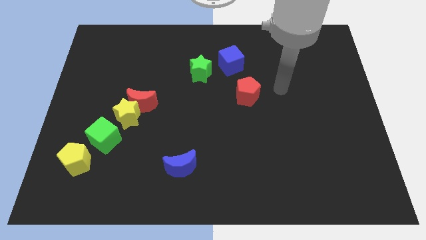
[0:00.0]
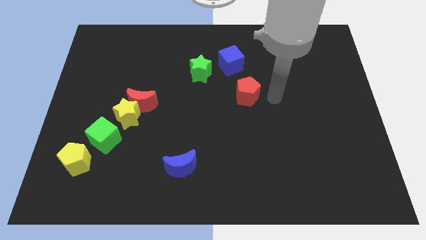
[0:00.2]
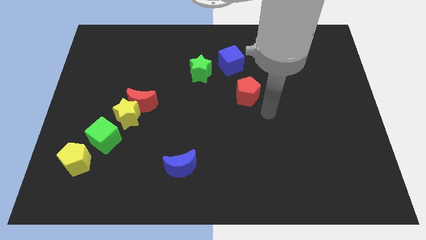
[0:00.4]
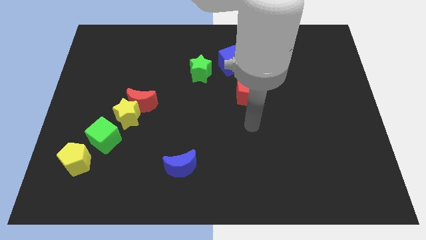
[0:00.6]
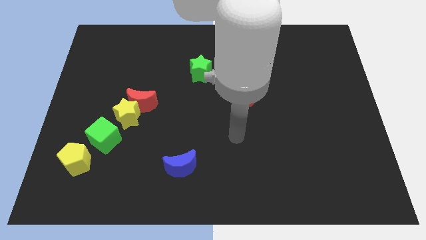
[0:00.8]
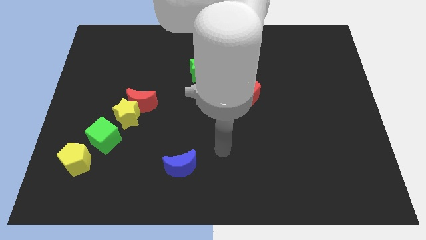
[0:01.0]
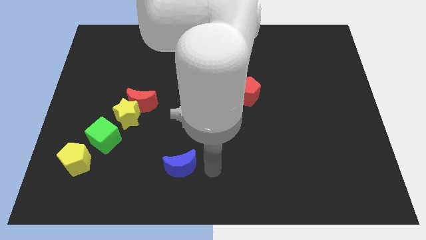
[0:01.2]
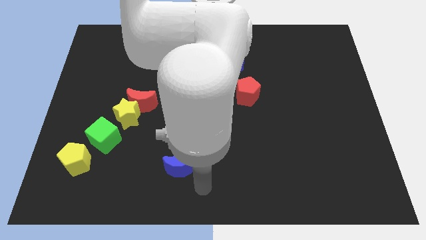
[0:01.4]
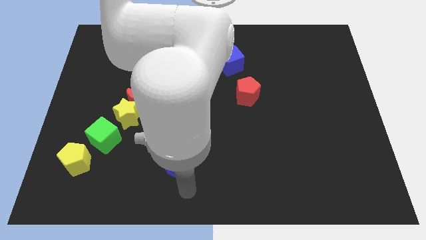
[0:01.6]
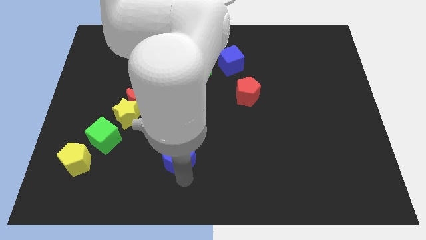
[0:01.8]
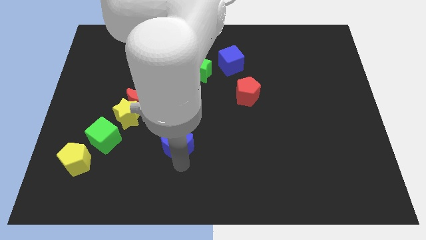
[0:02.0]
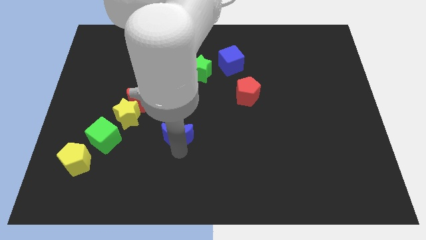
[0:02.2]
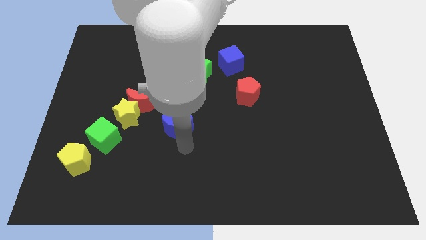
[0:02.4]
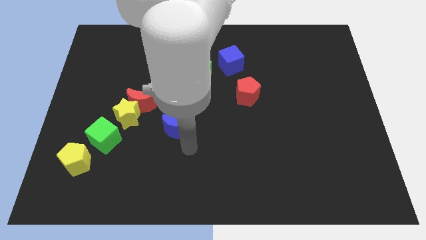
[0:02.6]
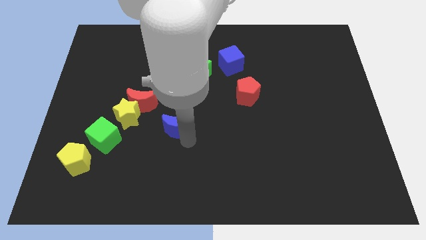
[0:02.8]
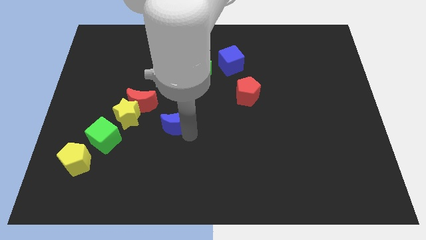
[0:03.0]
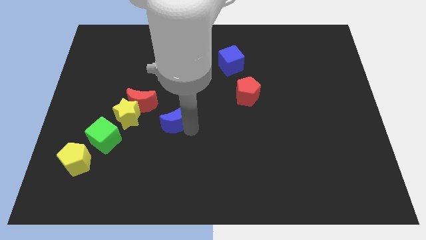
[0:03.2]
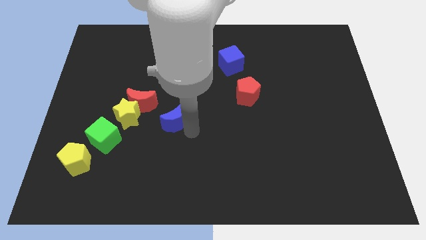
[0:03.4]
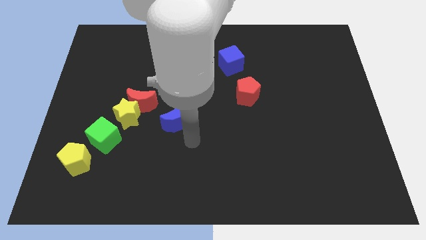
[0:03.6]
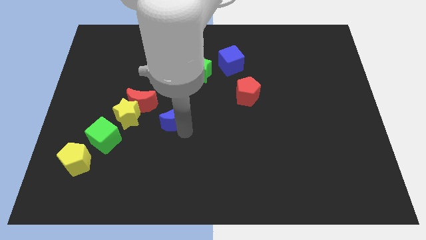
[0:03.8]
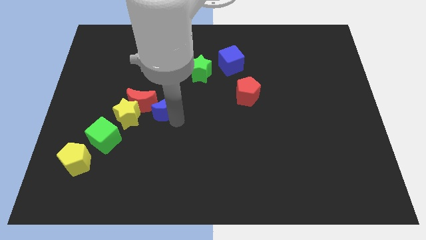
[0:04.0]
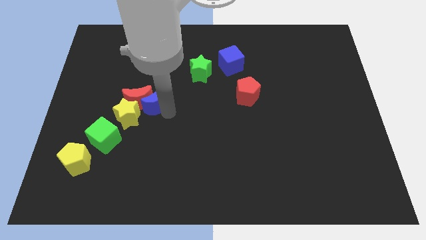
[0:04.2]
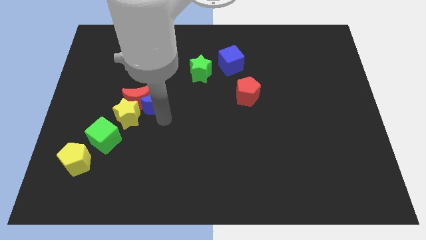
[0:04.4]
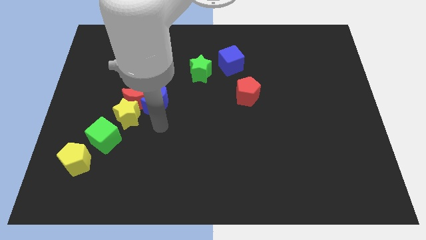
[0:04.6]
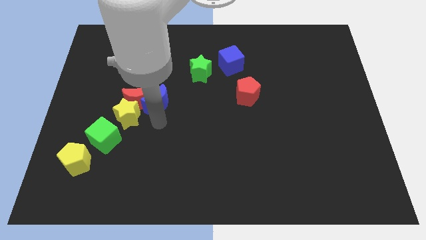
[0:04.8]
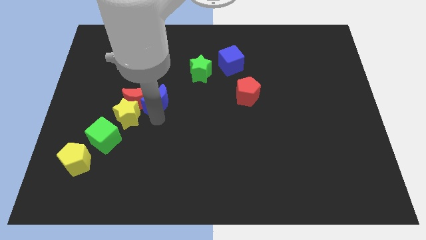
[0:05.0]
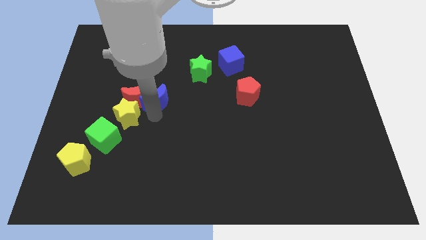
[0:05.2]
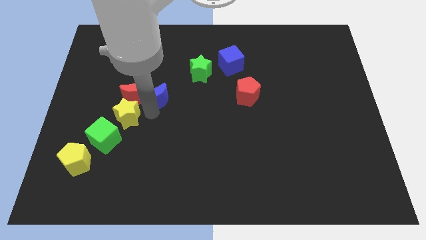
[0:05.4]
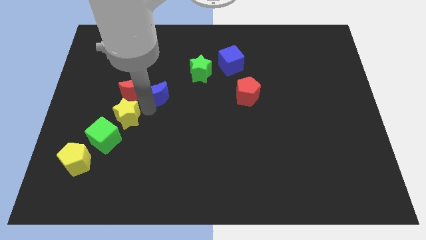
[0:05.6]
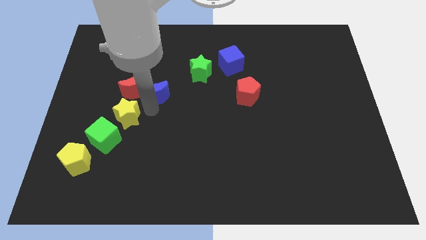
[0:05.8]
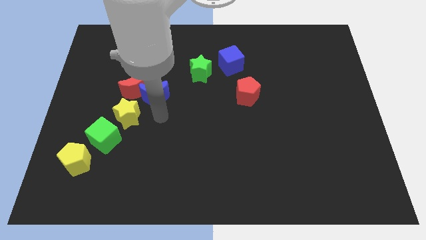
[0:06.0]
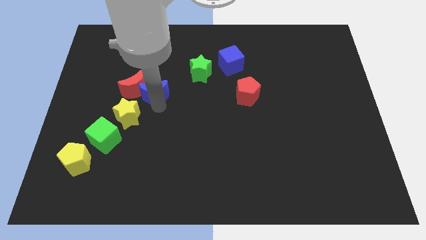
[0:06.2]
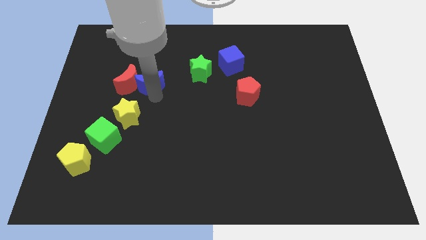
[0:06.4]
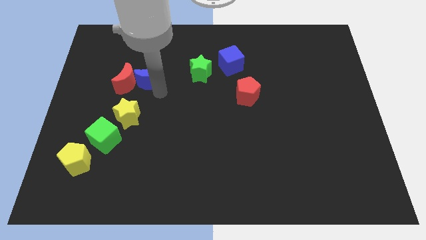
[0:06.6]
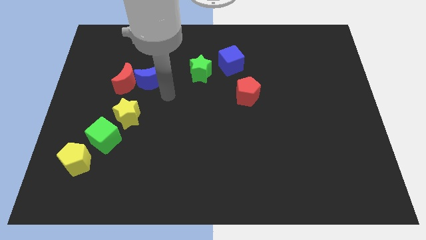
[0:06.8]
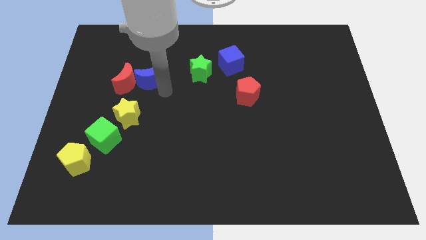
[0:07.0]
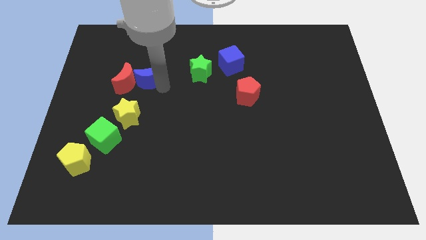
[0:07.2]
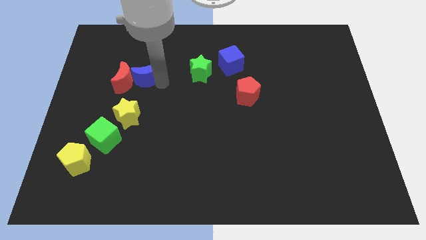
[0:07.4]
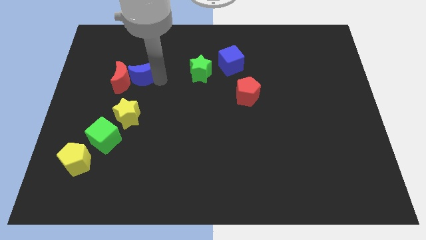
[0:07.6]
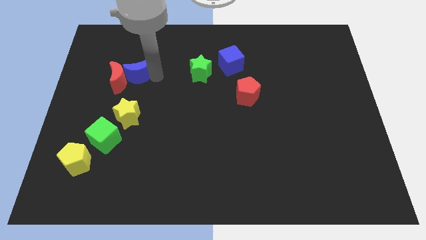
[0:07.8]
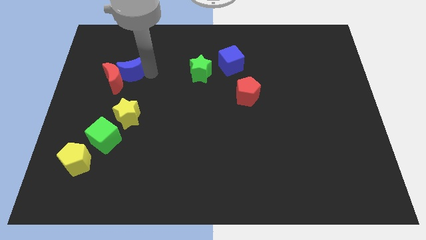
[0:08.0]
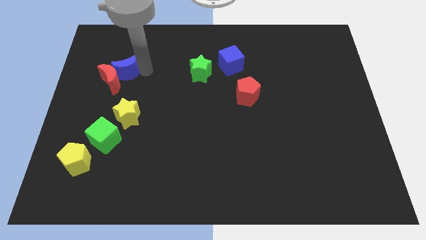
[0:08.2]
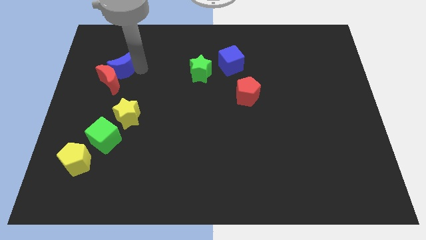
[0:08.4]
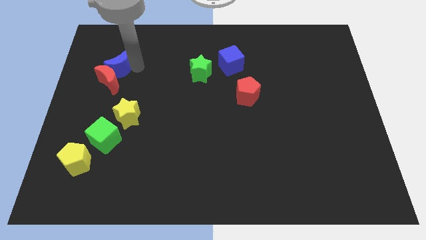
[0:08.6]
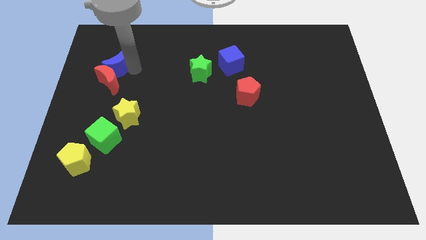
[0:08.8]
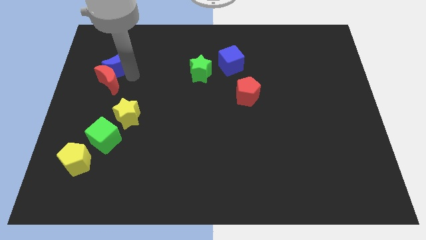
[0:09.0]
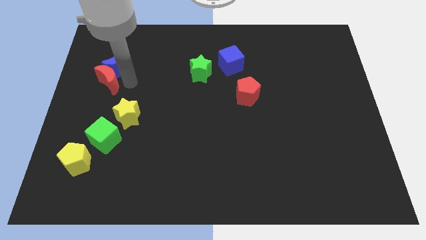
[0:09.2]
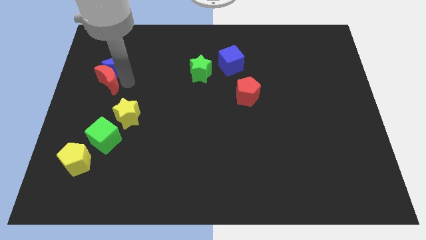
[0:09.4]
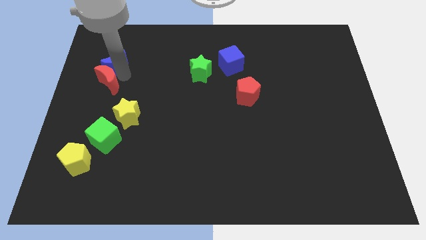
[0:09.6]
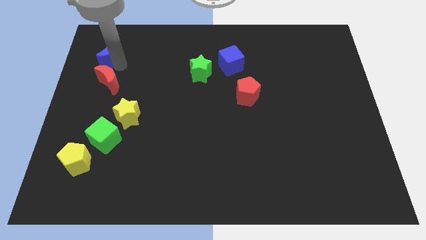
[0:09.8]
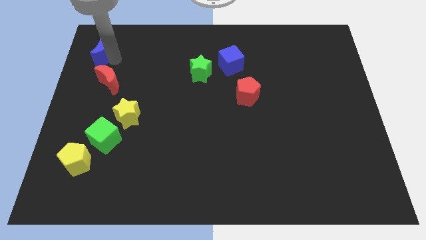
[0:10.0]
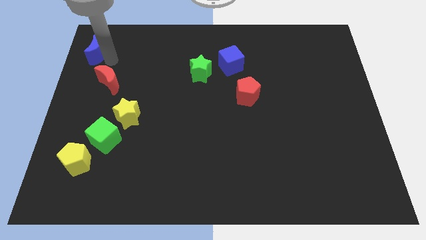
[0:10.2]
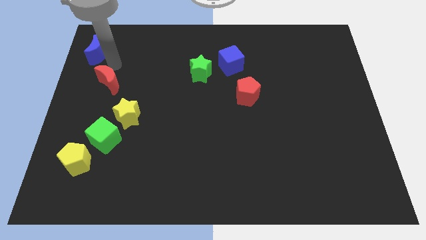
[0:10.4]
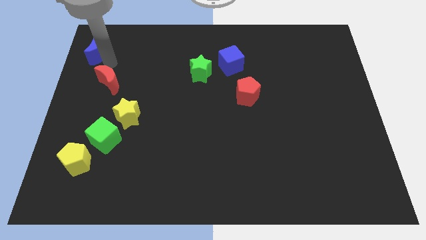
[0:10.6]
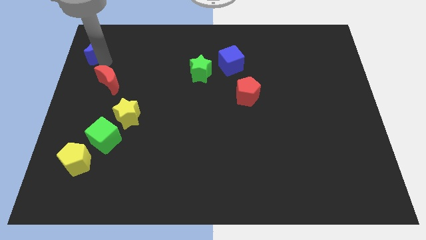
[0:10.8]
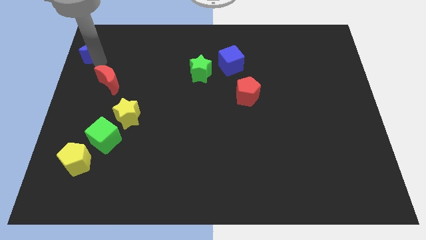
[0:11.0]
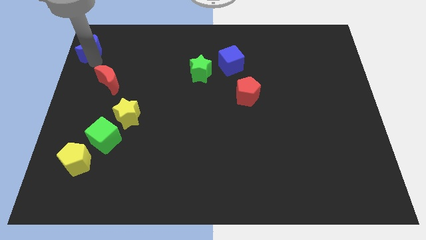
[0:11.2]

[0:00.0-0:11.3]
move the blue moon to the top left

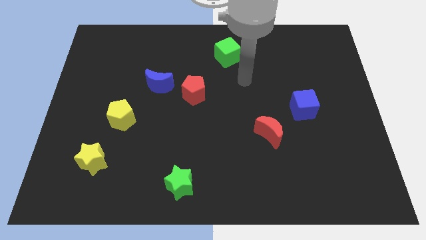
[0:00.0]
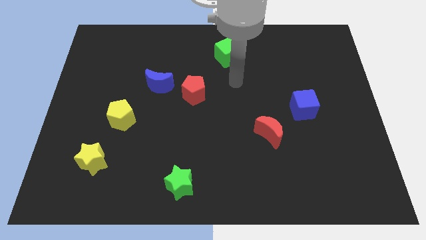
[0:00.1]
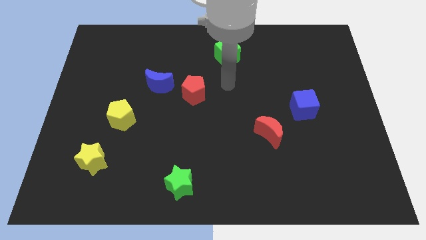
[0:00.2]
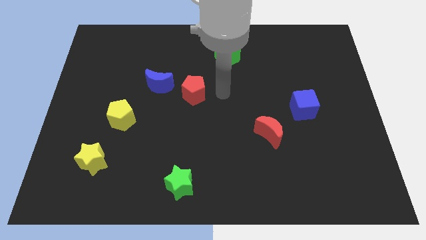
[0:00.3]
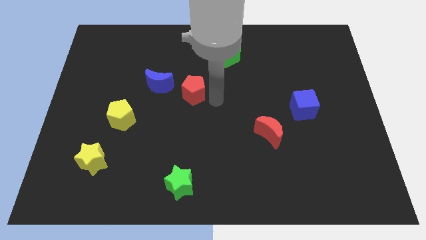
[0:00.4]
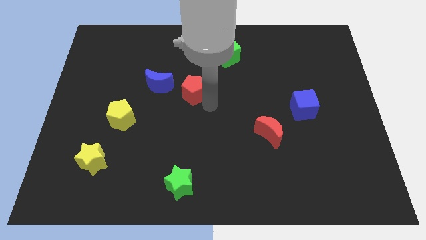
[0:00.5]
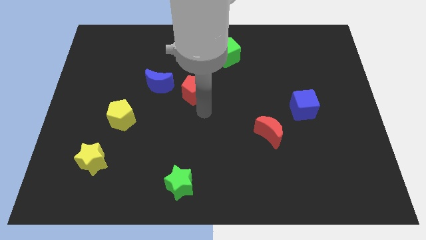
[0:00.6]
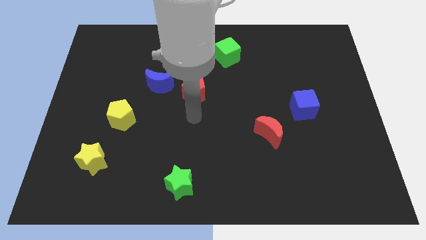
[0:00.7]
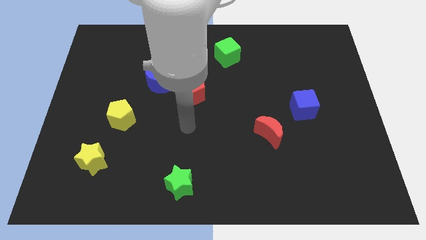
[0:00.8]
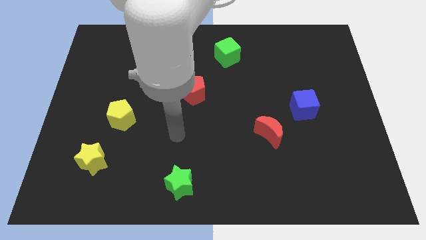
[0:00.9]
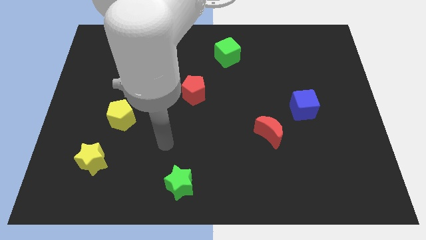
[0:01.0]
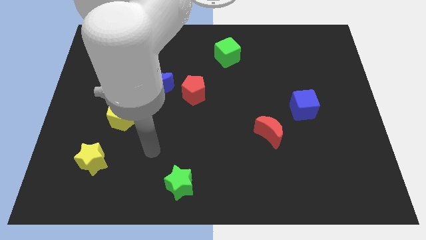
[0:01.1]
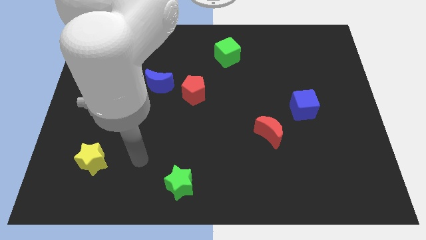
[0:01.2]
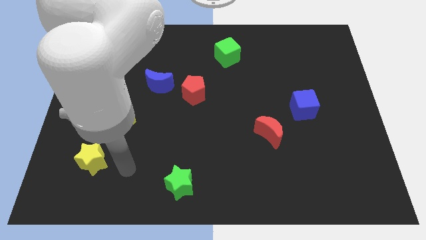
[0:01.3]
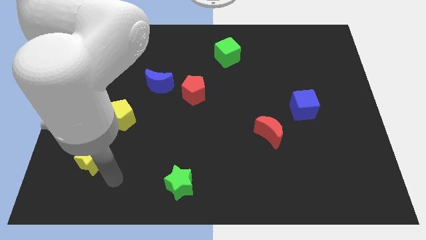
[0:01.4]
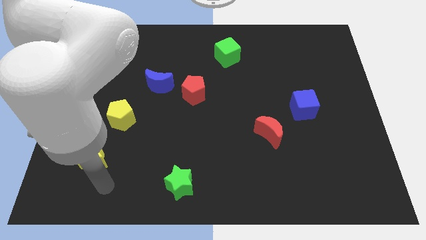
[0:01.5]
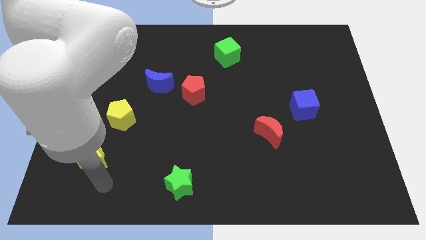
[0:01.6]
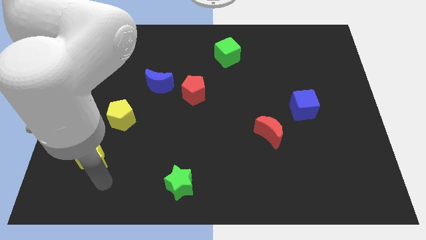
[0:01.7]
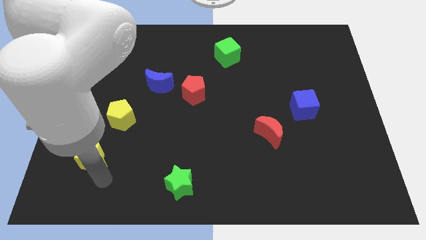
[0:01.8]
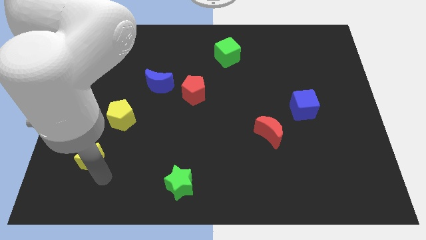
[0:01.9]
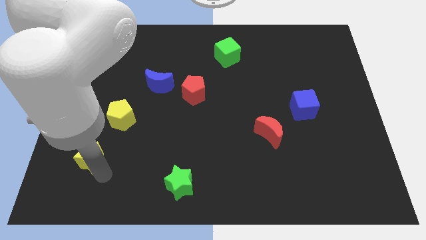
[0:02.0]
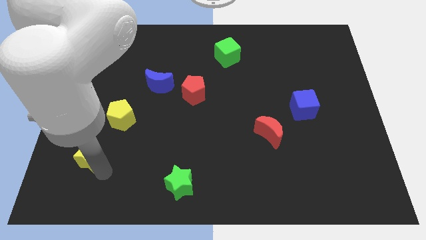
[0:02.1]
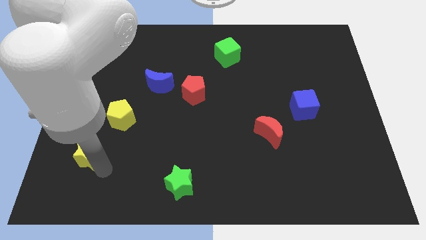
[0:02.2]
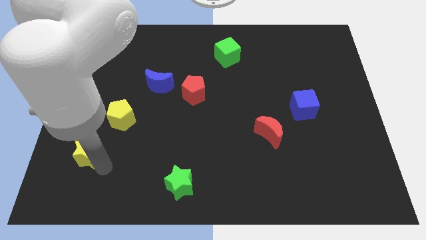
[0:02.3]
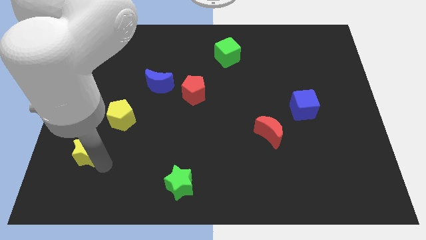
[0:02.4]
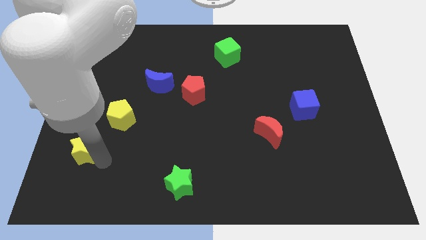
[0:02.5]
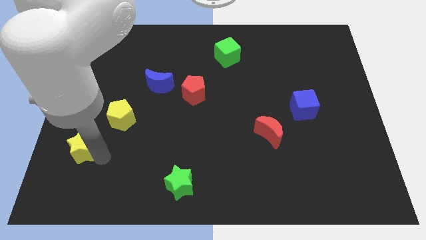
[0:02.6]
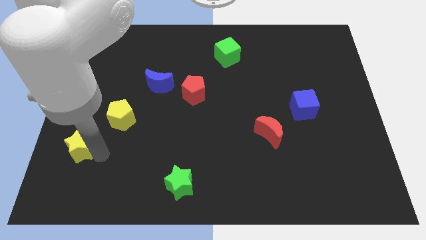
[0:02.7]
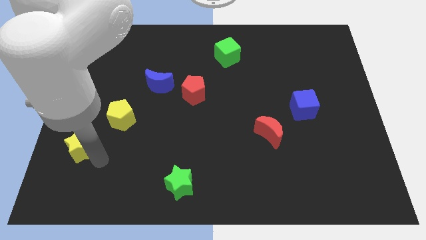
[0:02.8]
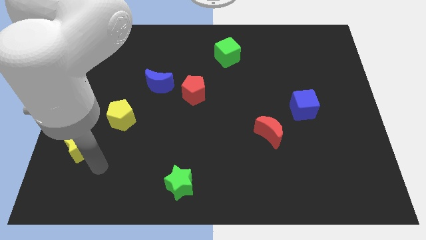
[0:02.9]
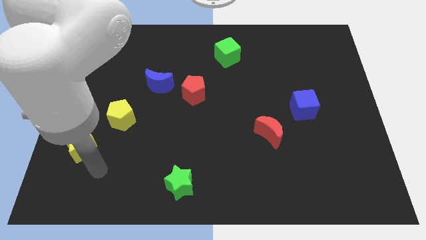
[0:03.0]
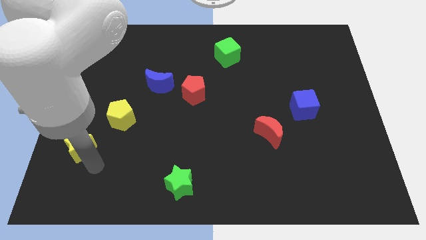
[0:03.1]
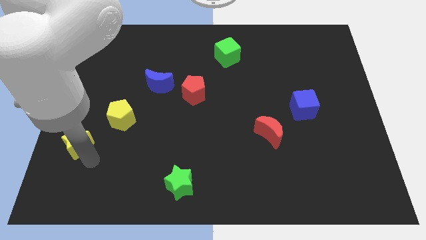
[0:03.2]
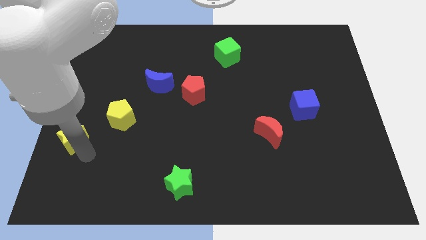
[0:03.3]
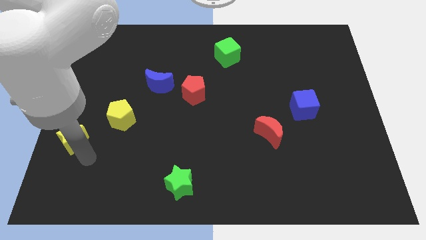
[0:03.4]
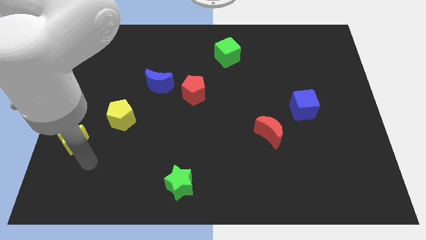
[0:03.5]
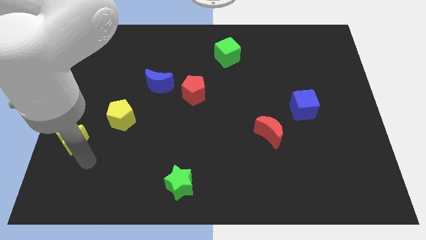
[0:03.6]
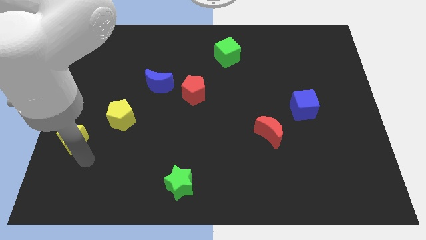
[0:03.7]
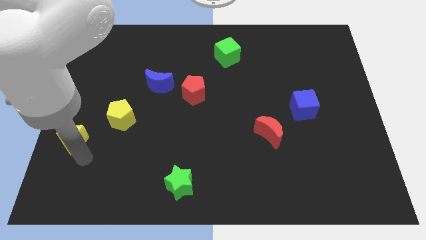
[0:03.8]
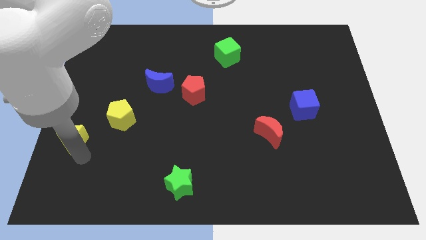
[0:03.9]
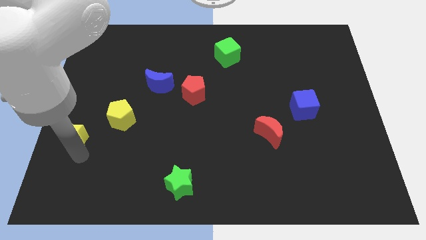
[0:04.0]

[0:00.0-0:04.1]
put the yellow star to the left side of the board
